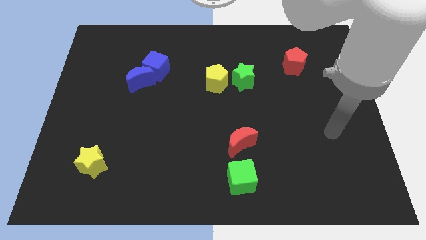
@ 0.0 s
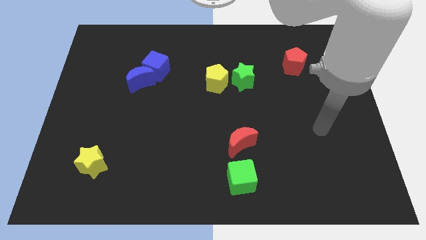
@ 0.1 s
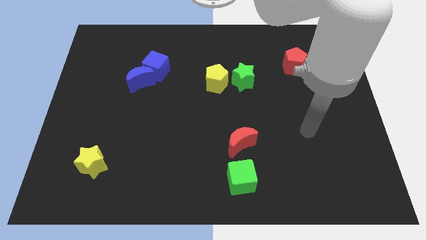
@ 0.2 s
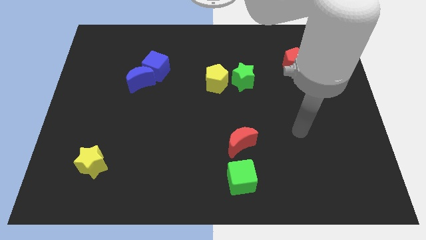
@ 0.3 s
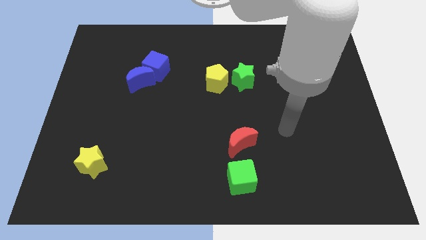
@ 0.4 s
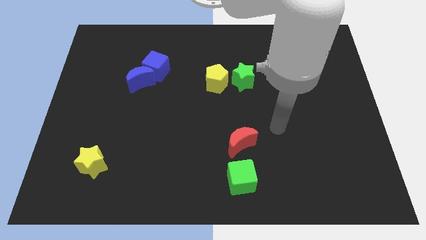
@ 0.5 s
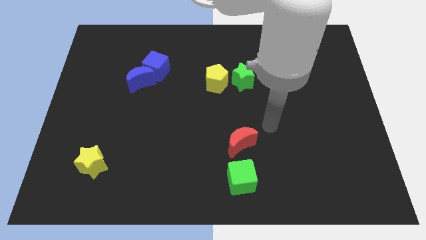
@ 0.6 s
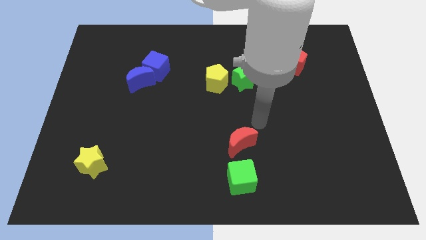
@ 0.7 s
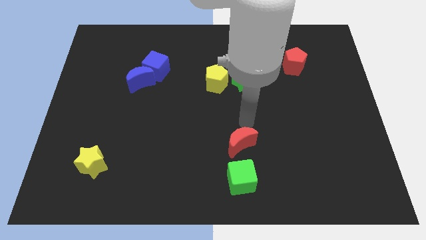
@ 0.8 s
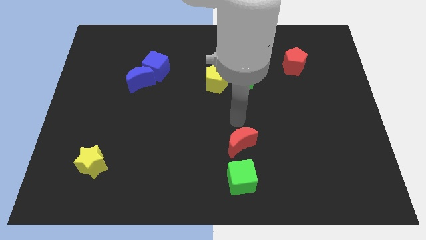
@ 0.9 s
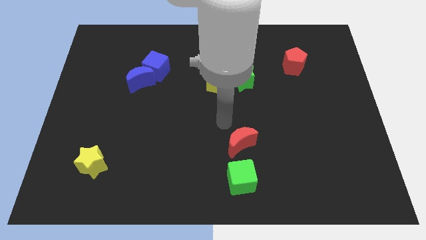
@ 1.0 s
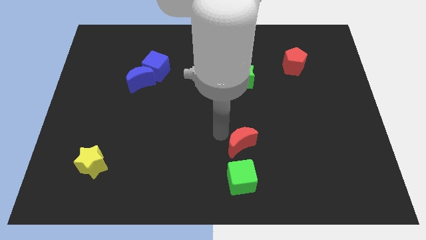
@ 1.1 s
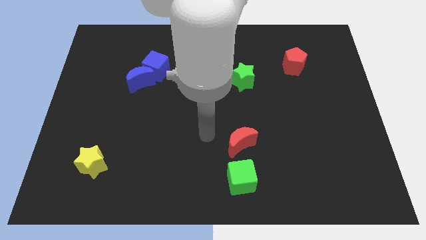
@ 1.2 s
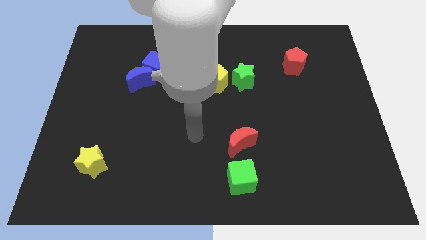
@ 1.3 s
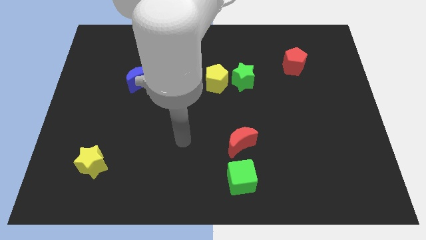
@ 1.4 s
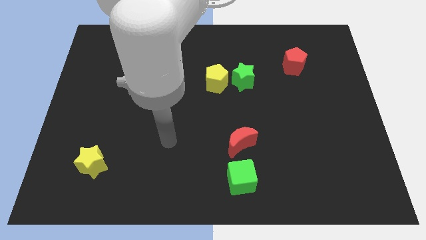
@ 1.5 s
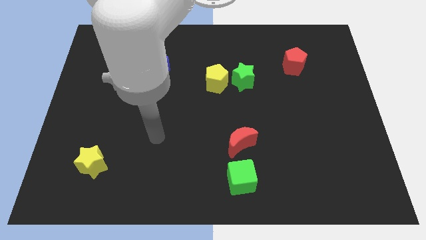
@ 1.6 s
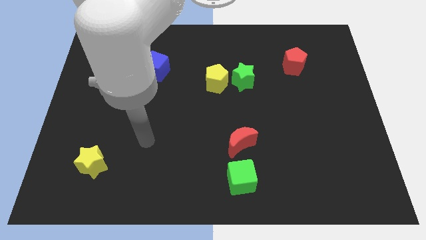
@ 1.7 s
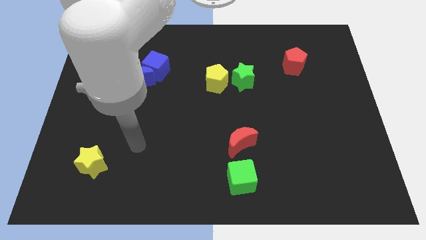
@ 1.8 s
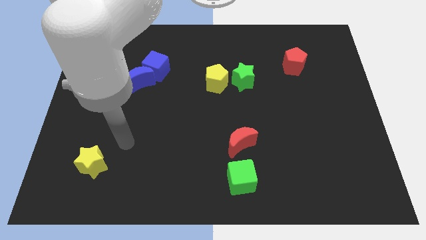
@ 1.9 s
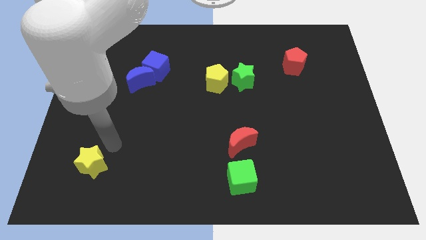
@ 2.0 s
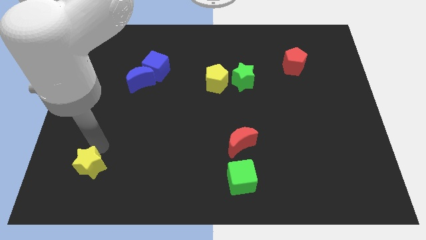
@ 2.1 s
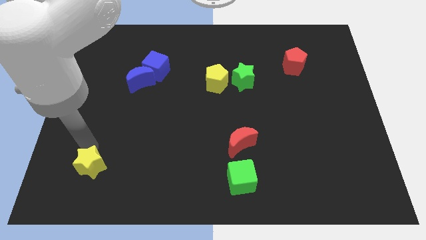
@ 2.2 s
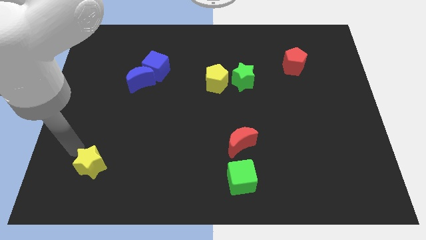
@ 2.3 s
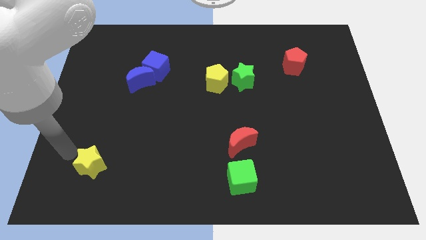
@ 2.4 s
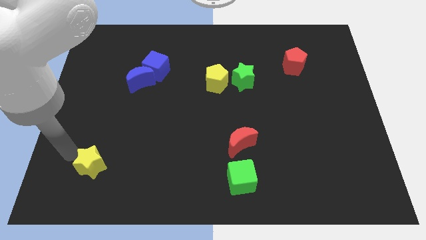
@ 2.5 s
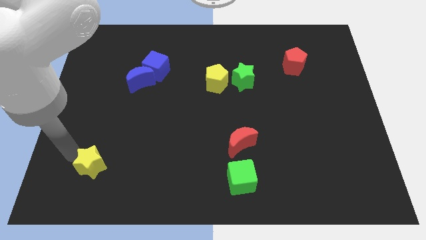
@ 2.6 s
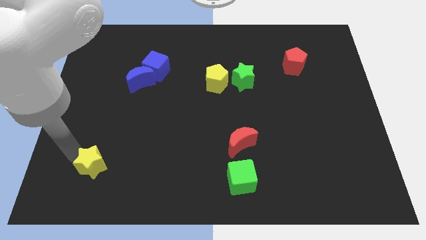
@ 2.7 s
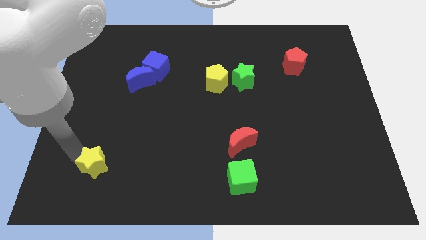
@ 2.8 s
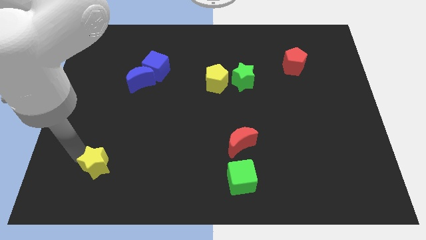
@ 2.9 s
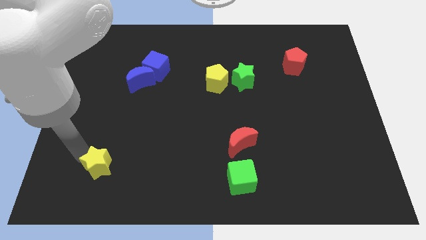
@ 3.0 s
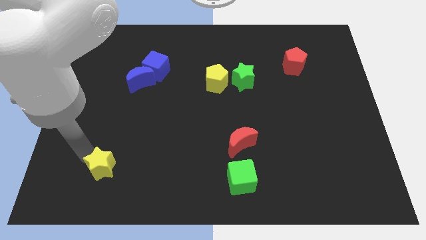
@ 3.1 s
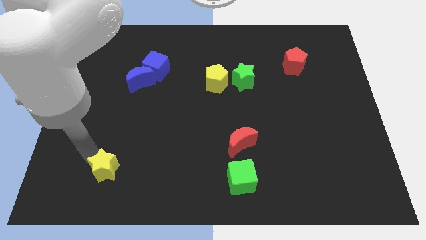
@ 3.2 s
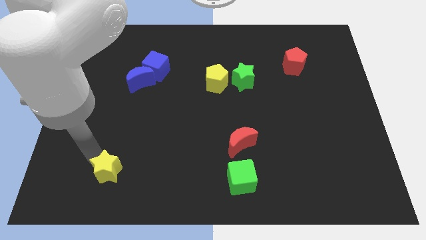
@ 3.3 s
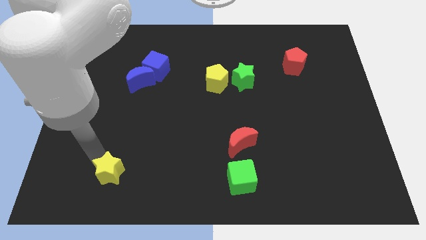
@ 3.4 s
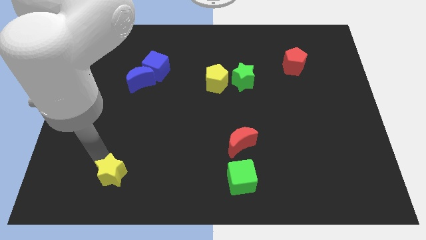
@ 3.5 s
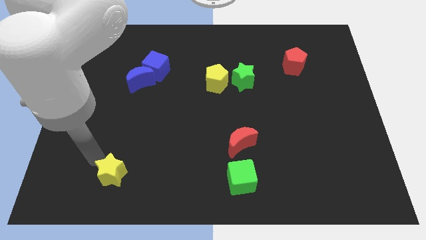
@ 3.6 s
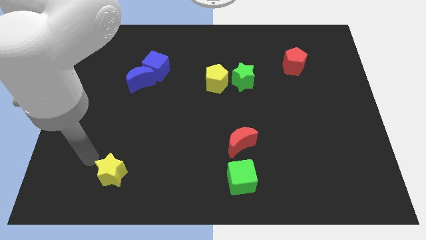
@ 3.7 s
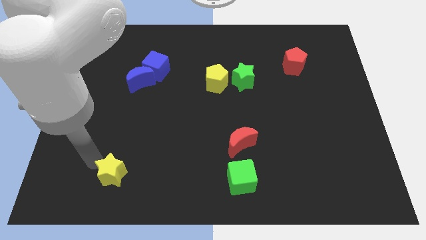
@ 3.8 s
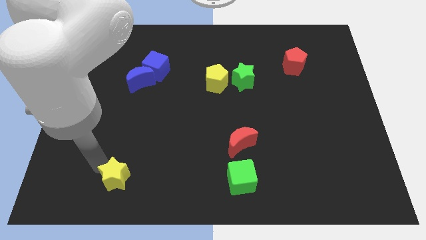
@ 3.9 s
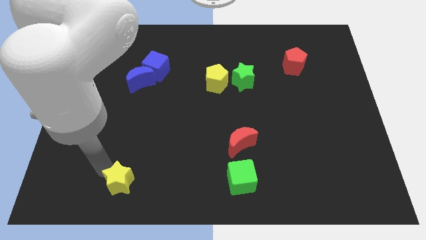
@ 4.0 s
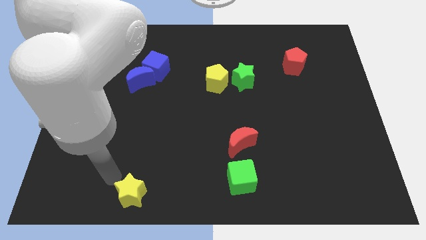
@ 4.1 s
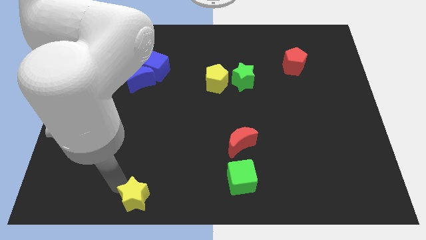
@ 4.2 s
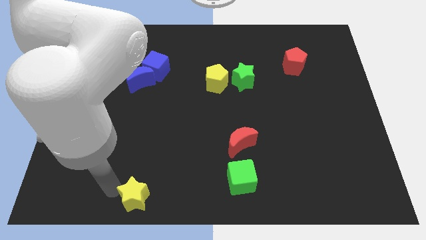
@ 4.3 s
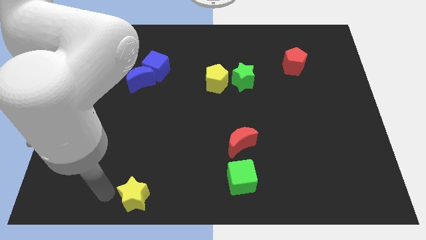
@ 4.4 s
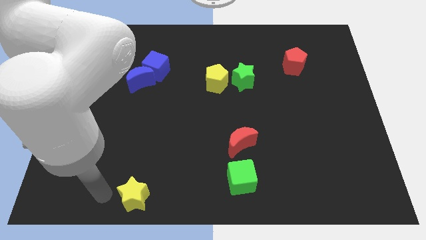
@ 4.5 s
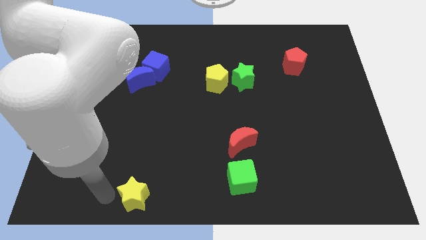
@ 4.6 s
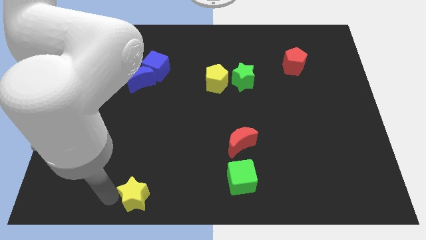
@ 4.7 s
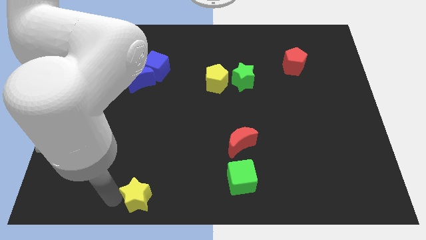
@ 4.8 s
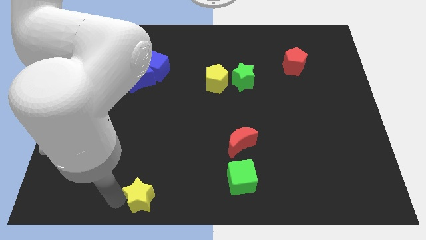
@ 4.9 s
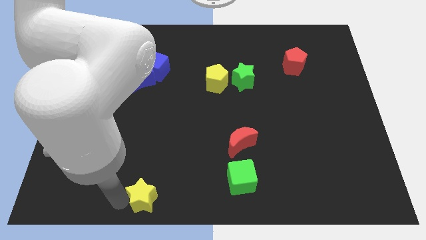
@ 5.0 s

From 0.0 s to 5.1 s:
push the yellow star to the bottom side

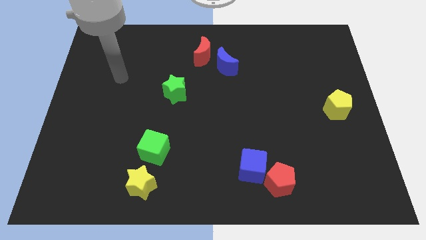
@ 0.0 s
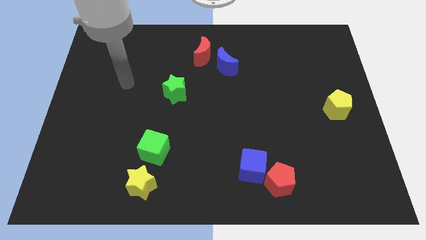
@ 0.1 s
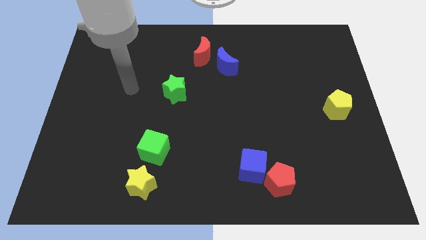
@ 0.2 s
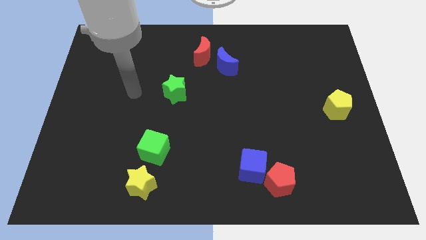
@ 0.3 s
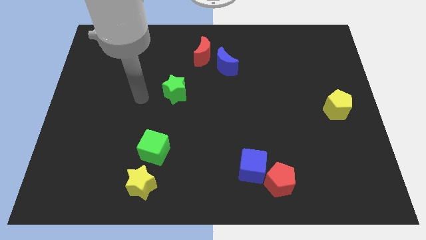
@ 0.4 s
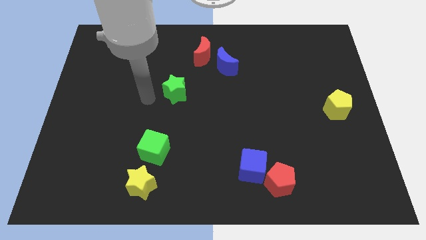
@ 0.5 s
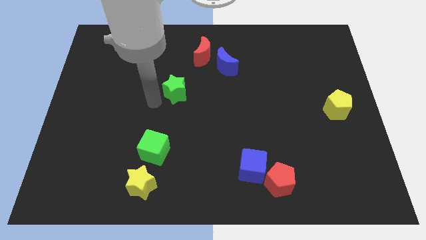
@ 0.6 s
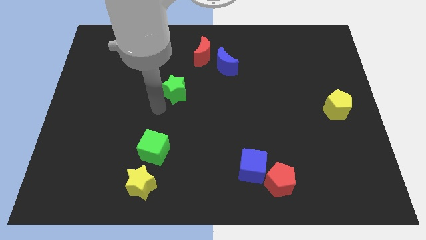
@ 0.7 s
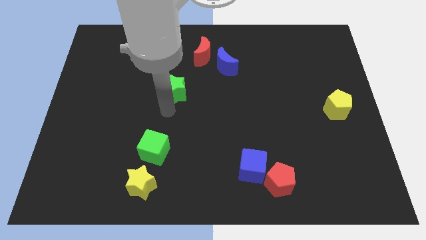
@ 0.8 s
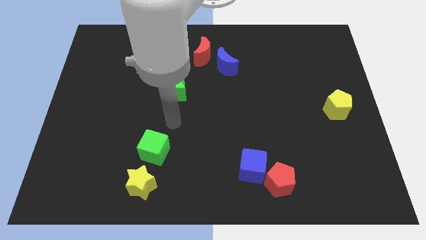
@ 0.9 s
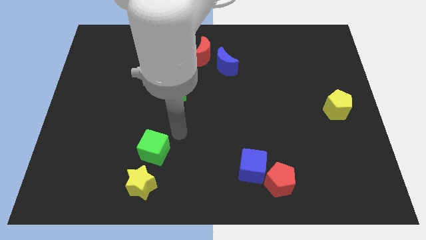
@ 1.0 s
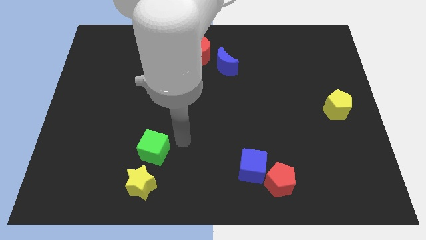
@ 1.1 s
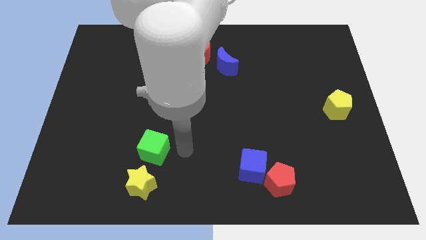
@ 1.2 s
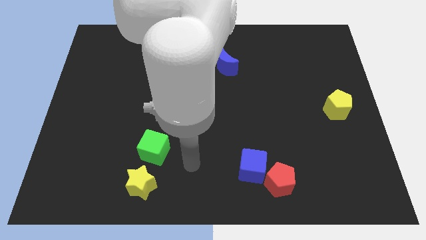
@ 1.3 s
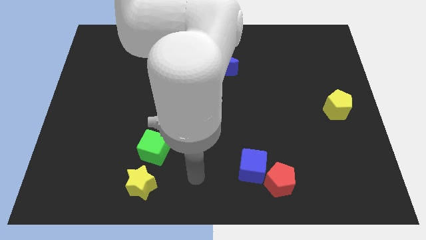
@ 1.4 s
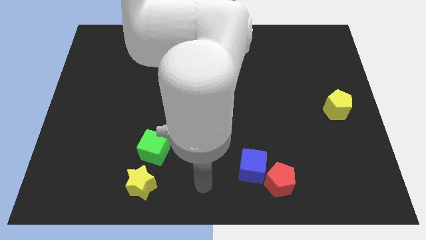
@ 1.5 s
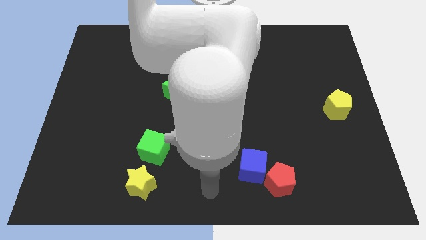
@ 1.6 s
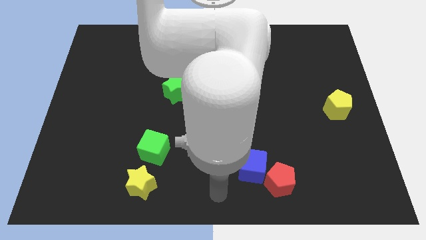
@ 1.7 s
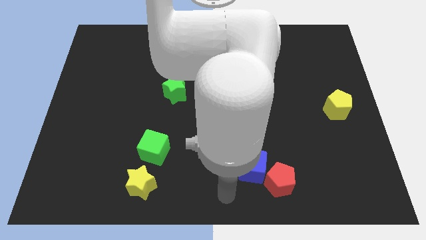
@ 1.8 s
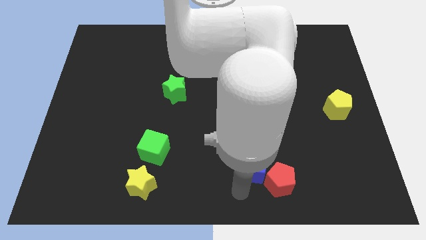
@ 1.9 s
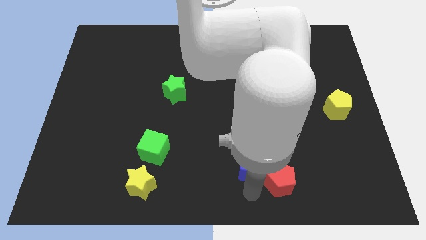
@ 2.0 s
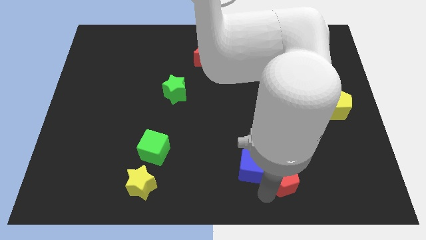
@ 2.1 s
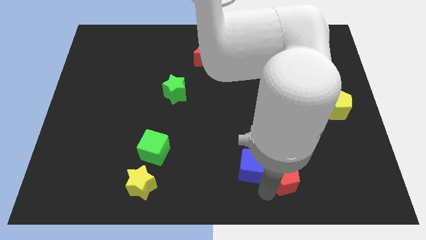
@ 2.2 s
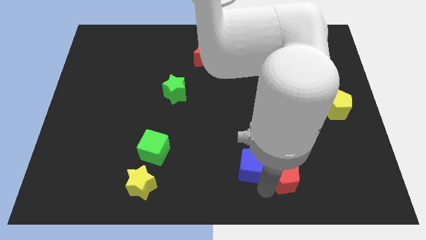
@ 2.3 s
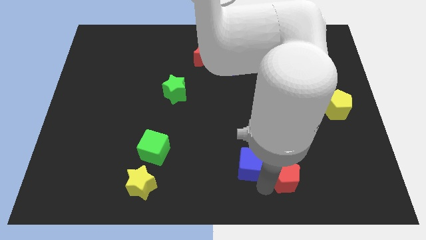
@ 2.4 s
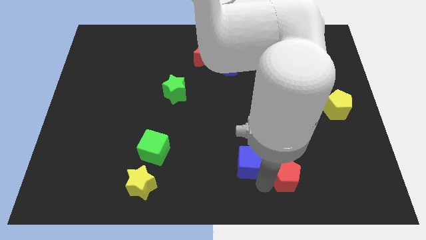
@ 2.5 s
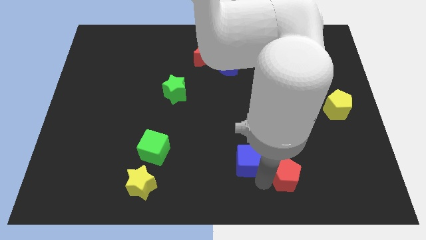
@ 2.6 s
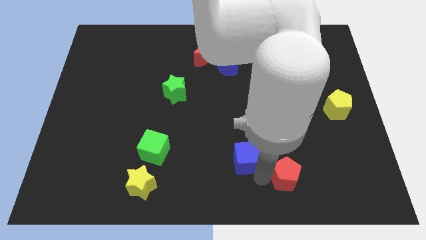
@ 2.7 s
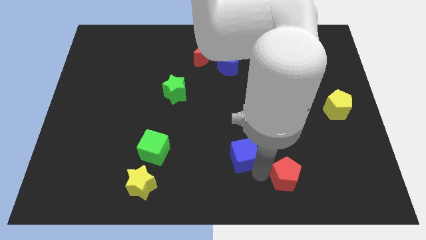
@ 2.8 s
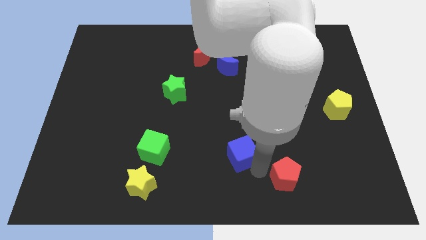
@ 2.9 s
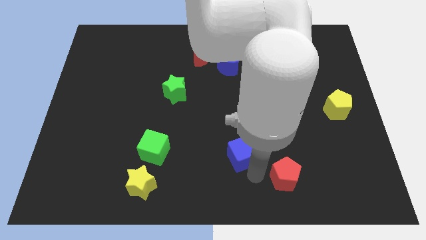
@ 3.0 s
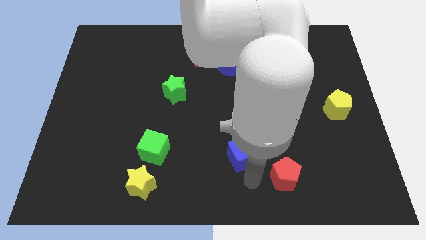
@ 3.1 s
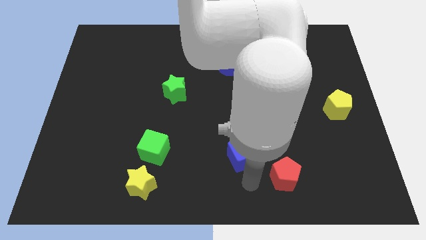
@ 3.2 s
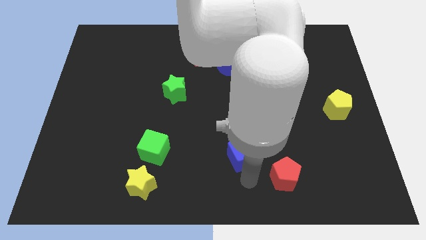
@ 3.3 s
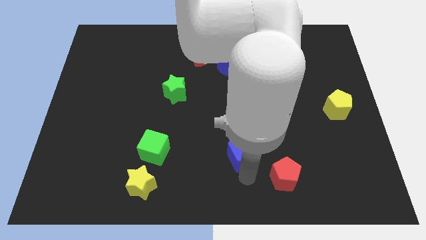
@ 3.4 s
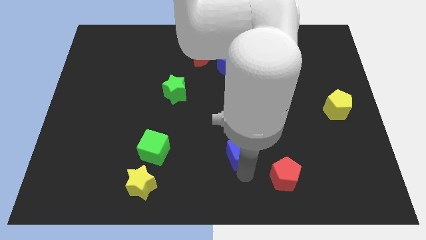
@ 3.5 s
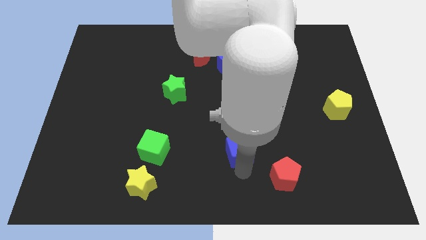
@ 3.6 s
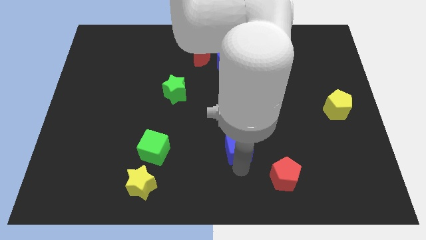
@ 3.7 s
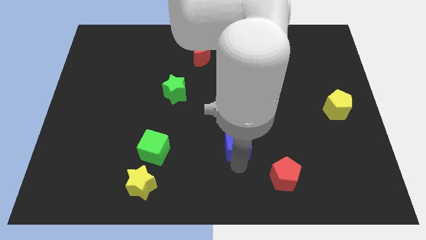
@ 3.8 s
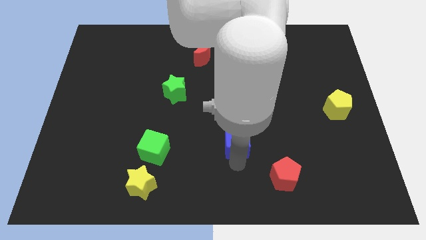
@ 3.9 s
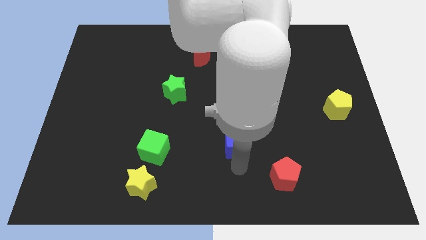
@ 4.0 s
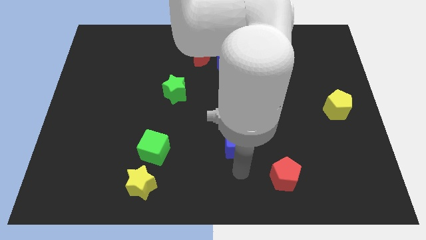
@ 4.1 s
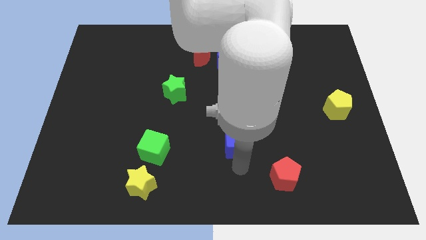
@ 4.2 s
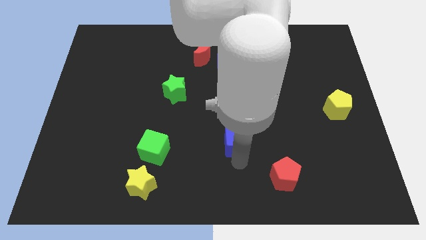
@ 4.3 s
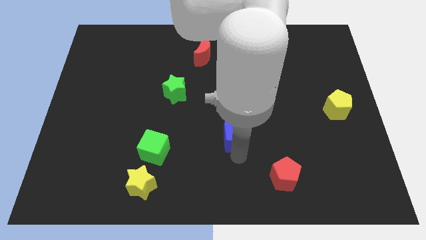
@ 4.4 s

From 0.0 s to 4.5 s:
put the blue cube to the center
